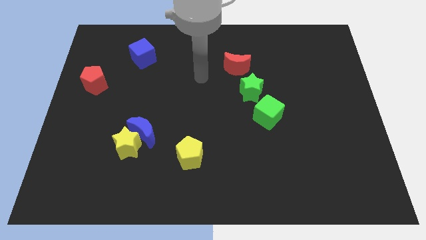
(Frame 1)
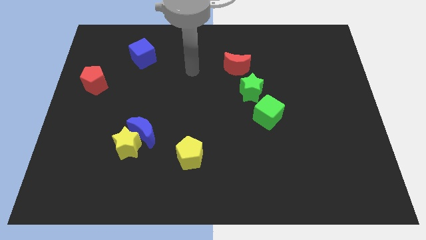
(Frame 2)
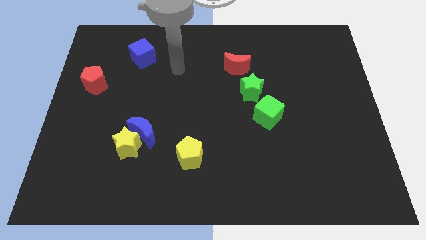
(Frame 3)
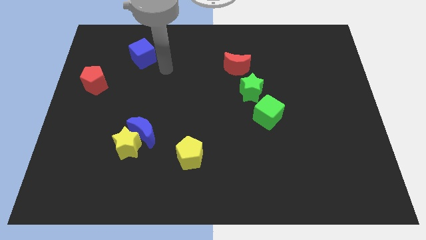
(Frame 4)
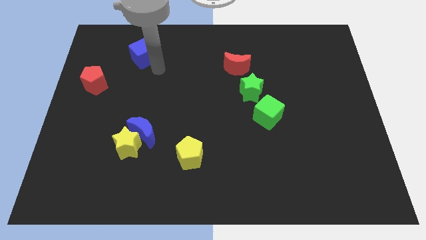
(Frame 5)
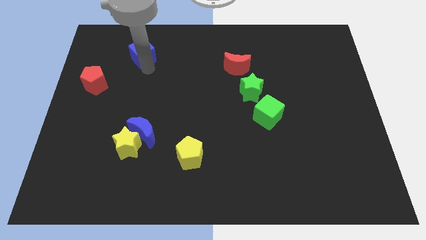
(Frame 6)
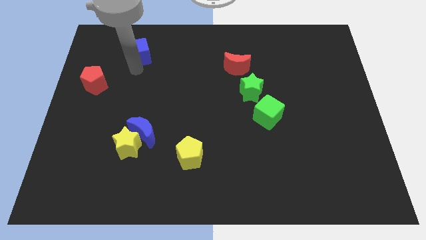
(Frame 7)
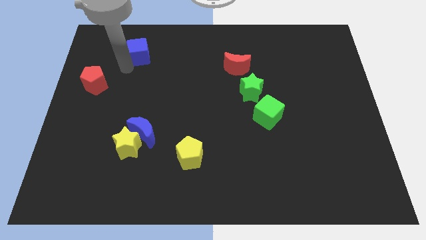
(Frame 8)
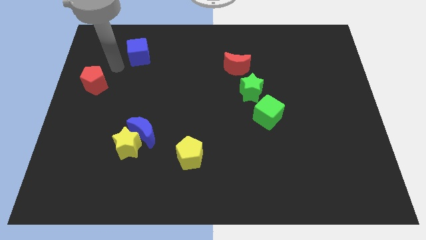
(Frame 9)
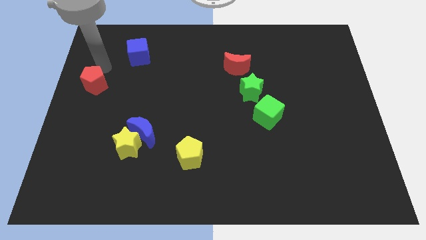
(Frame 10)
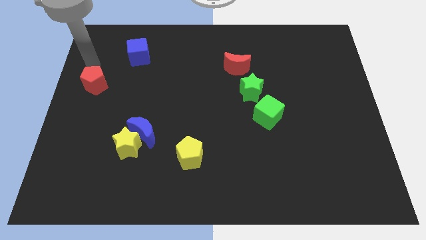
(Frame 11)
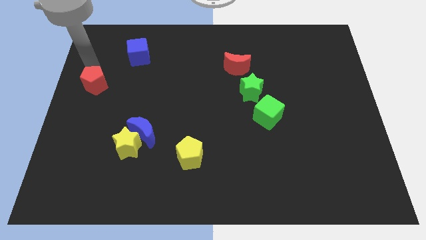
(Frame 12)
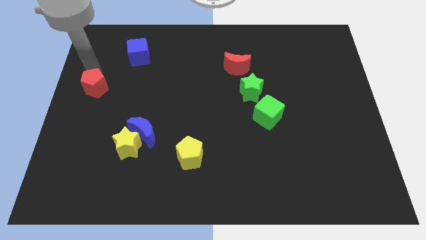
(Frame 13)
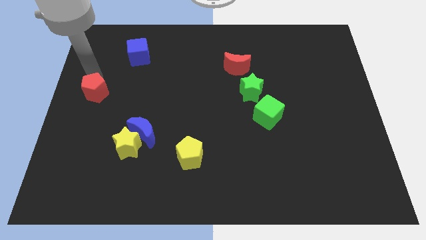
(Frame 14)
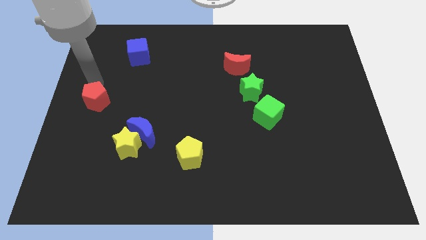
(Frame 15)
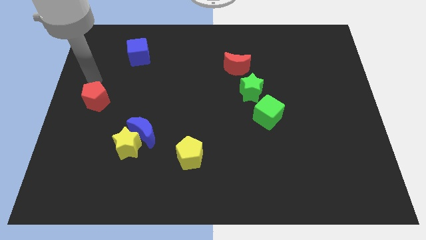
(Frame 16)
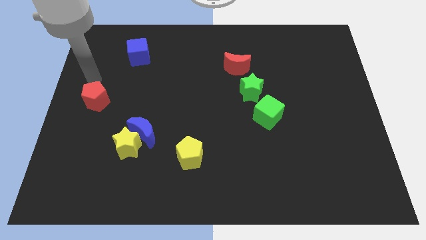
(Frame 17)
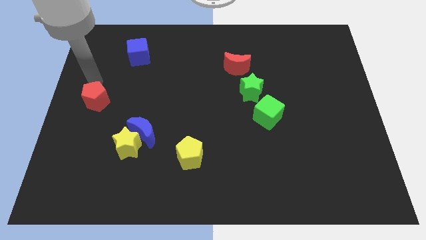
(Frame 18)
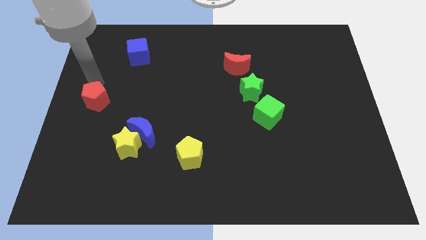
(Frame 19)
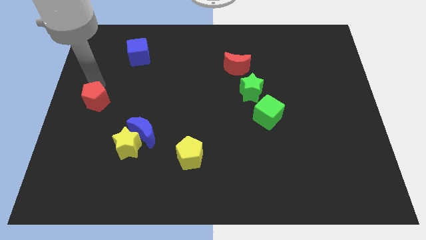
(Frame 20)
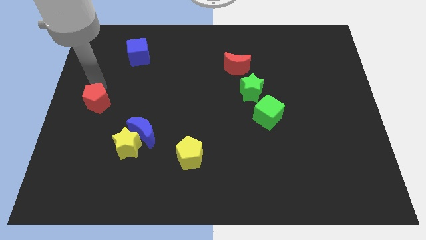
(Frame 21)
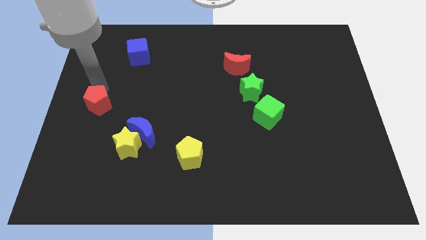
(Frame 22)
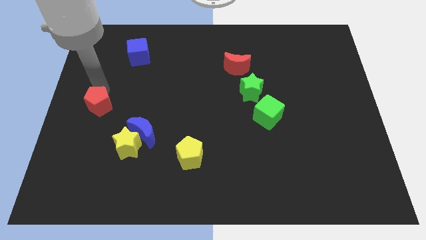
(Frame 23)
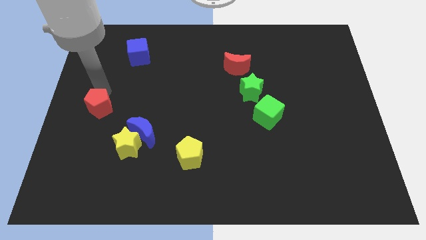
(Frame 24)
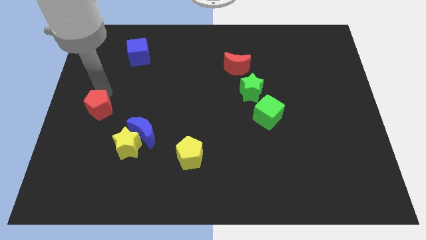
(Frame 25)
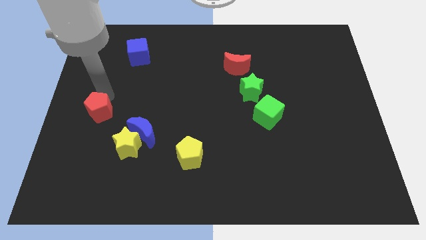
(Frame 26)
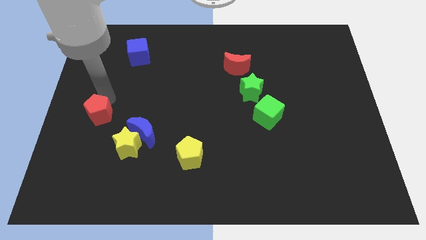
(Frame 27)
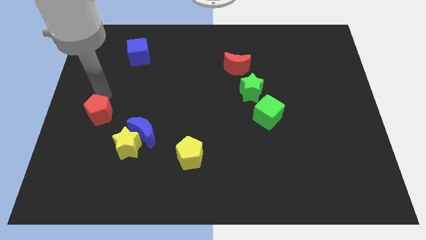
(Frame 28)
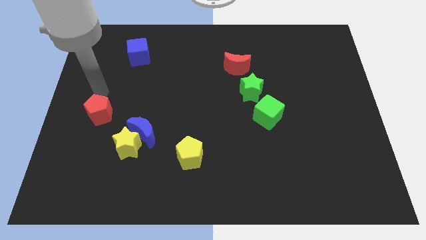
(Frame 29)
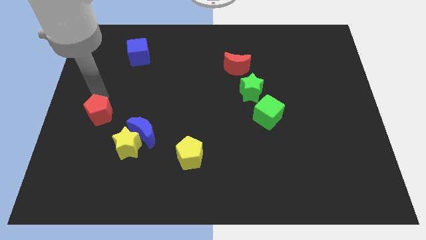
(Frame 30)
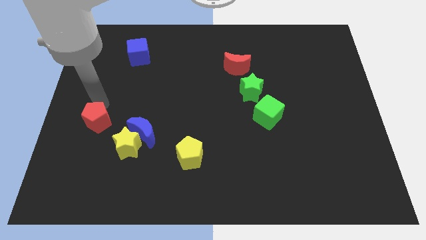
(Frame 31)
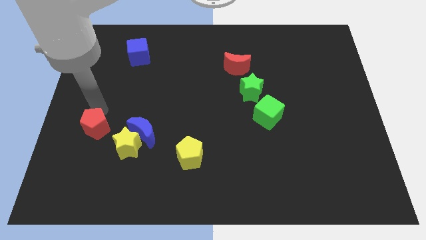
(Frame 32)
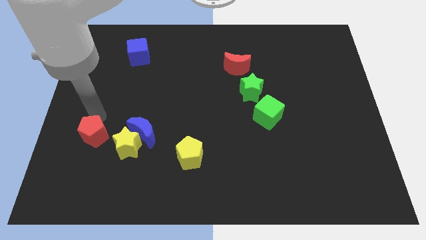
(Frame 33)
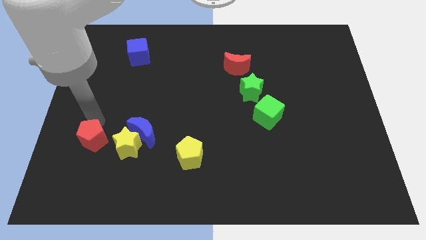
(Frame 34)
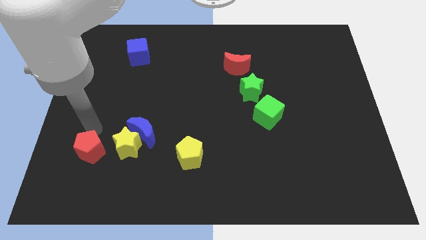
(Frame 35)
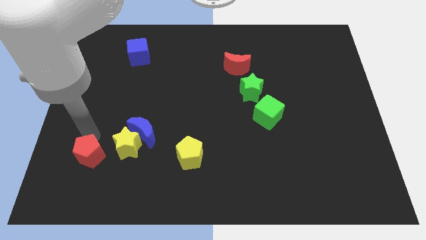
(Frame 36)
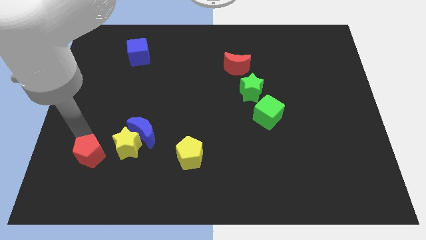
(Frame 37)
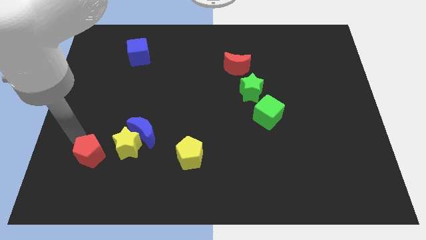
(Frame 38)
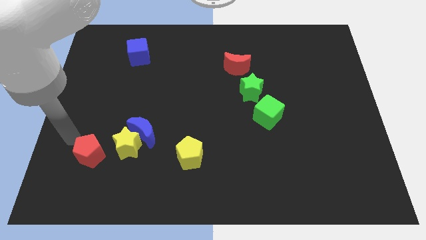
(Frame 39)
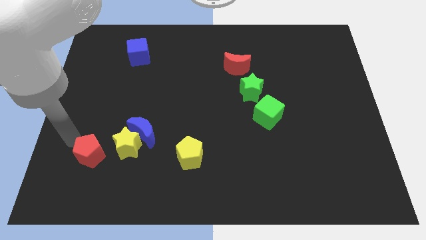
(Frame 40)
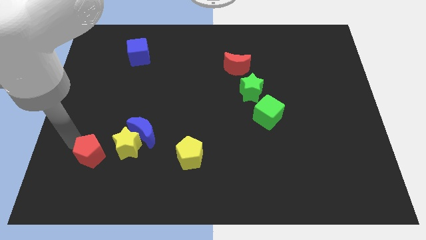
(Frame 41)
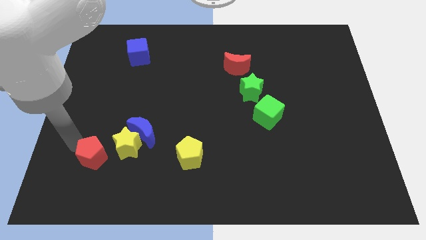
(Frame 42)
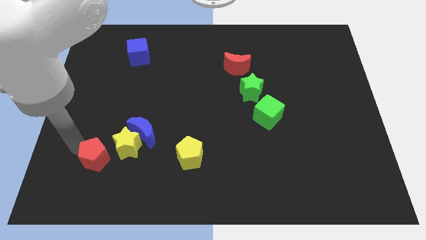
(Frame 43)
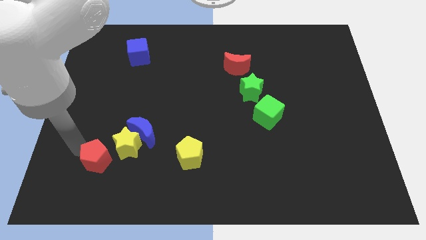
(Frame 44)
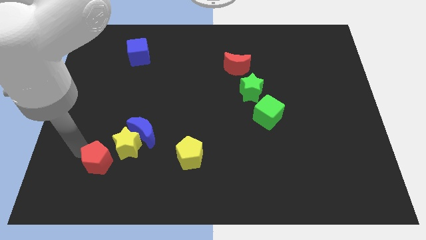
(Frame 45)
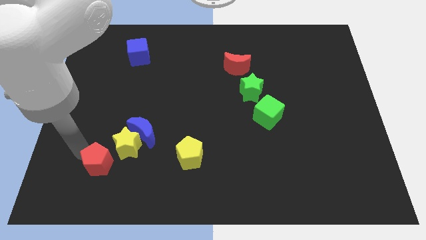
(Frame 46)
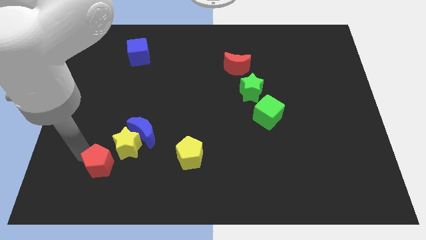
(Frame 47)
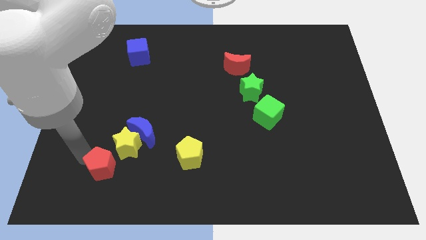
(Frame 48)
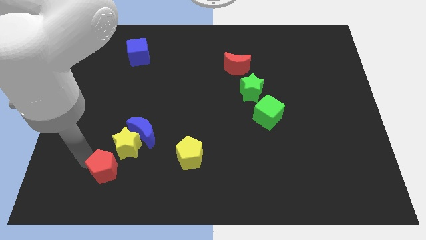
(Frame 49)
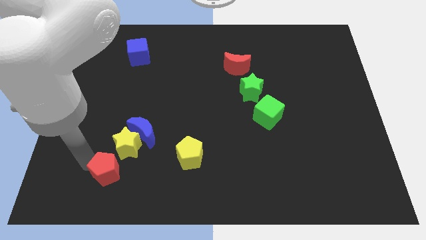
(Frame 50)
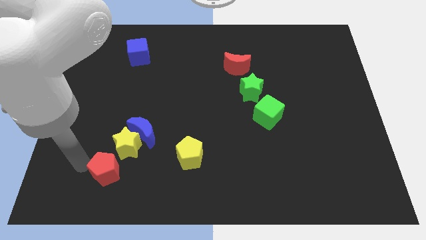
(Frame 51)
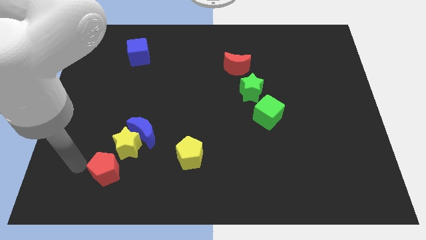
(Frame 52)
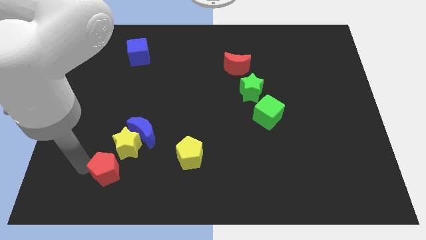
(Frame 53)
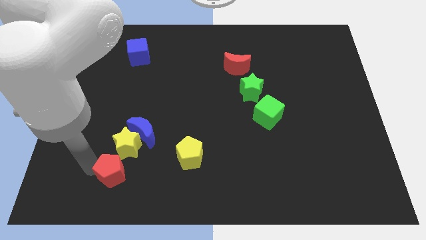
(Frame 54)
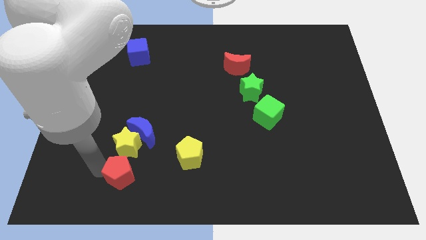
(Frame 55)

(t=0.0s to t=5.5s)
push the red pentagon below the blue moon

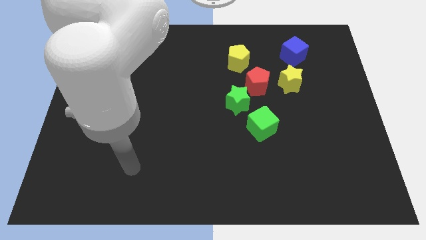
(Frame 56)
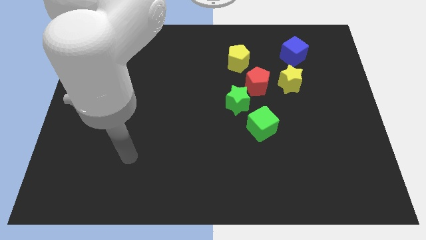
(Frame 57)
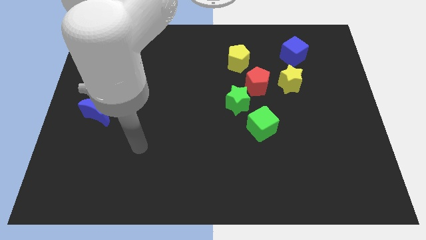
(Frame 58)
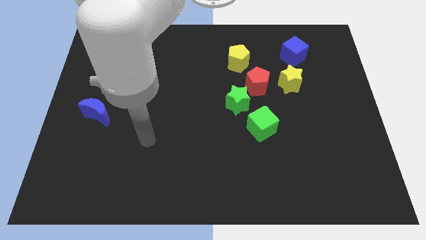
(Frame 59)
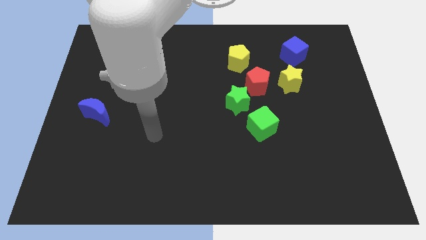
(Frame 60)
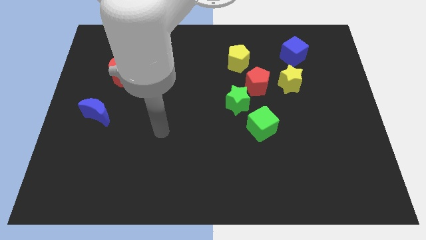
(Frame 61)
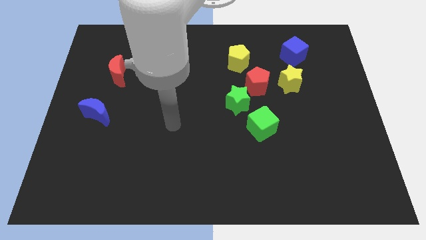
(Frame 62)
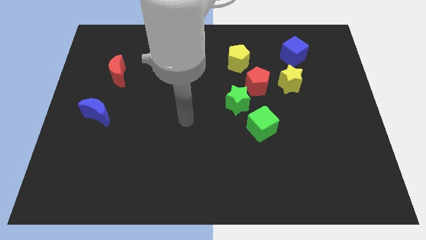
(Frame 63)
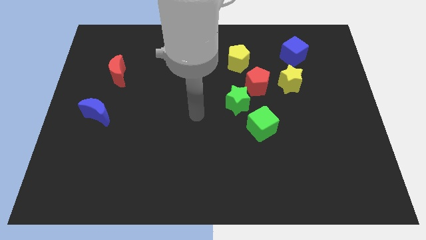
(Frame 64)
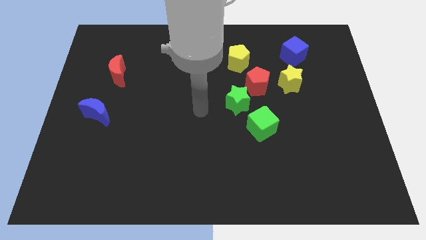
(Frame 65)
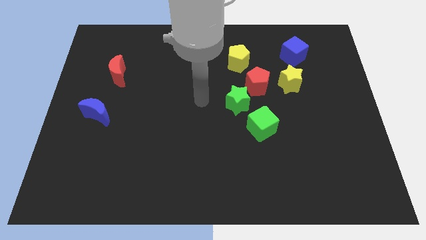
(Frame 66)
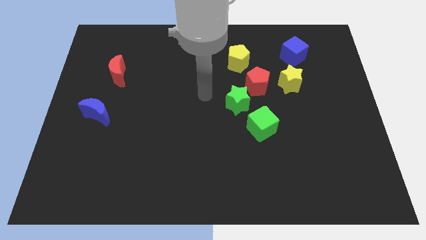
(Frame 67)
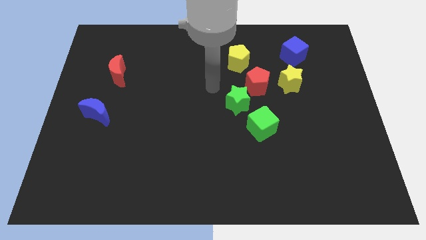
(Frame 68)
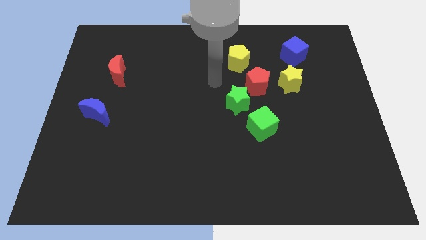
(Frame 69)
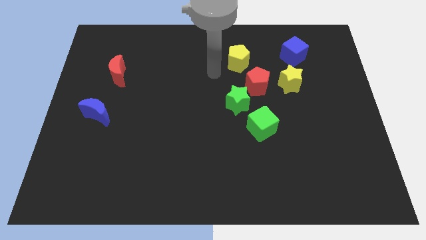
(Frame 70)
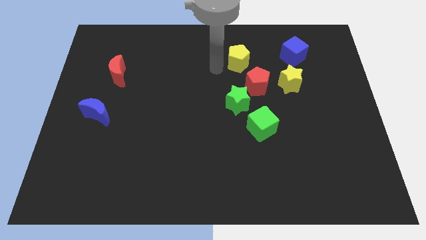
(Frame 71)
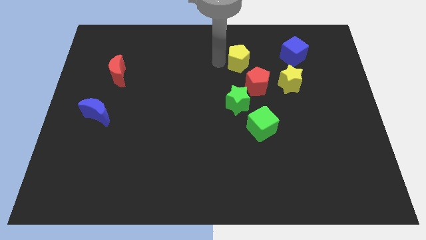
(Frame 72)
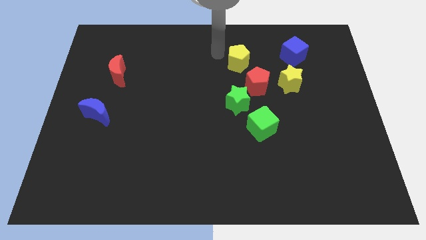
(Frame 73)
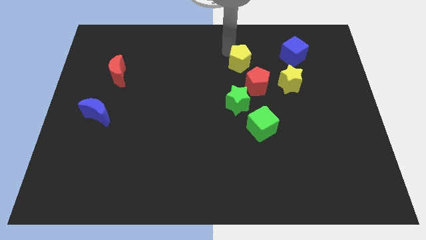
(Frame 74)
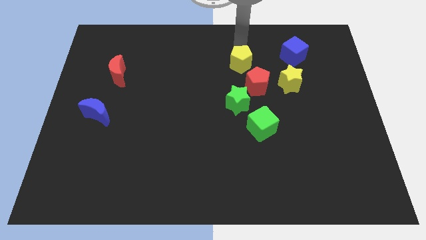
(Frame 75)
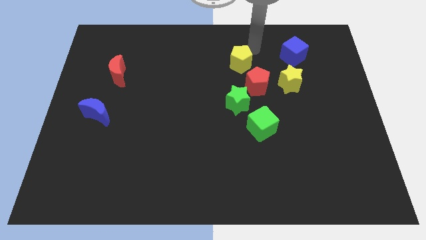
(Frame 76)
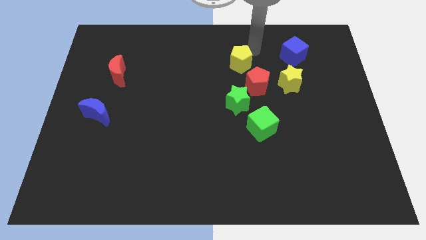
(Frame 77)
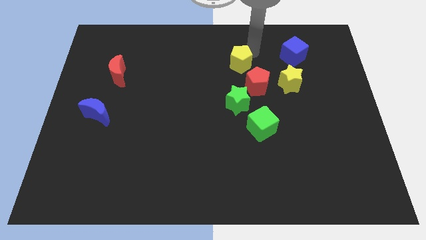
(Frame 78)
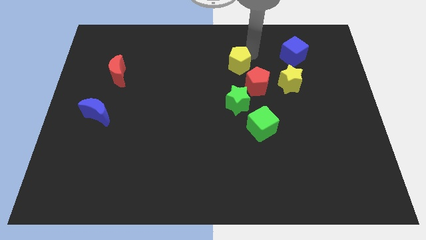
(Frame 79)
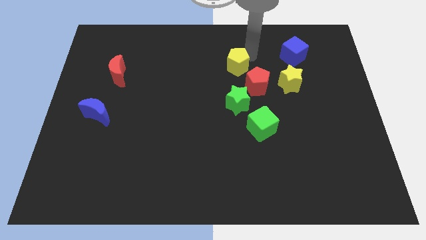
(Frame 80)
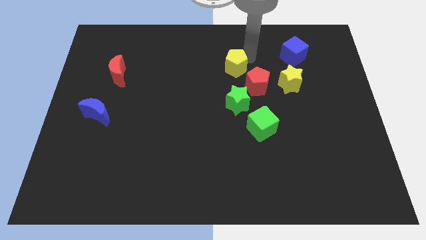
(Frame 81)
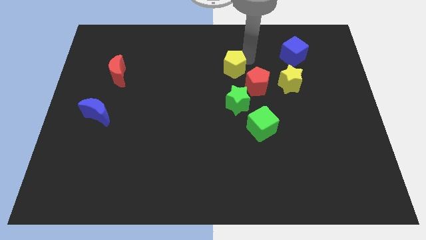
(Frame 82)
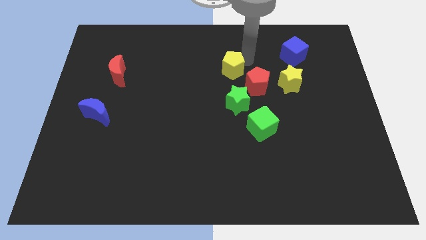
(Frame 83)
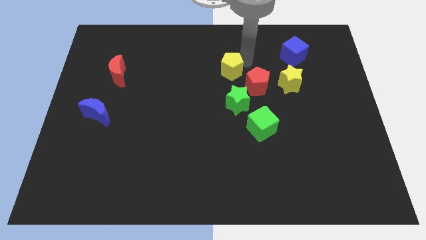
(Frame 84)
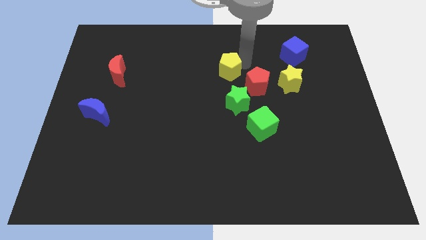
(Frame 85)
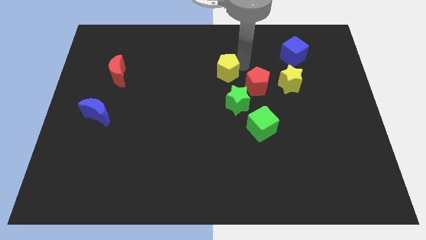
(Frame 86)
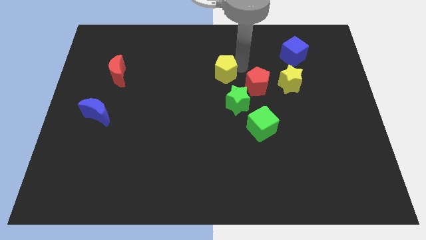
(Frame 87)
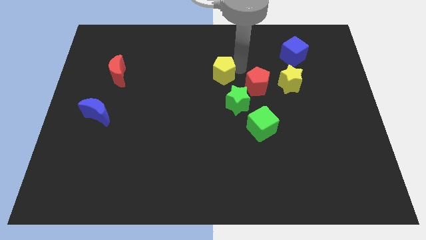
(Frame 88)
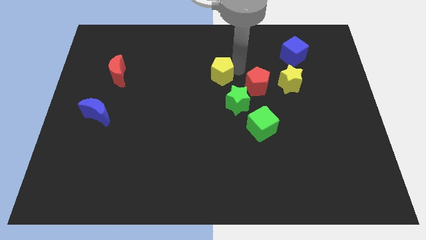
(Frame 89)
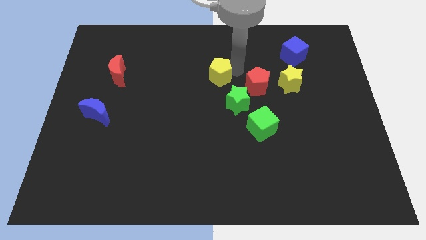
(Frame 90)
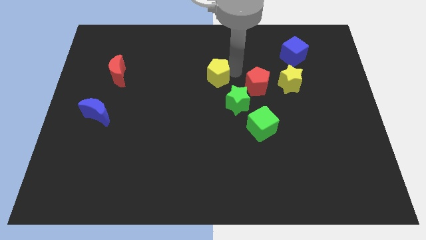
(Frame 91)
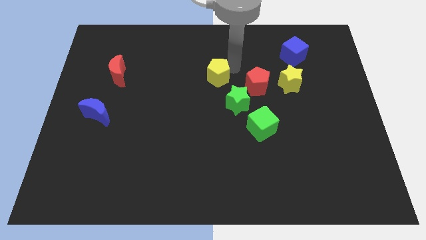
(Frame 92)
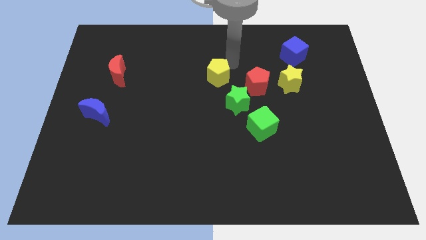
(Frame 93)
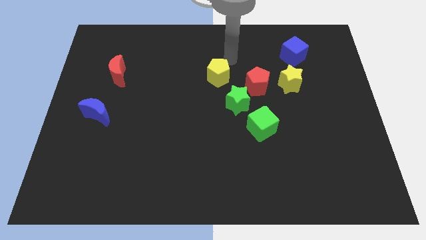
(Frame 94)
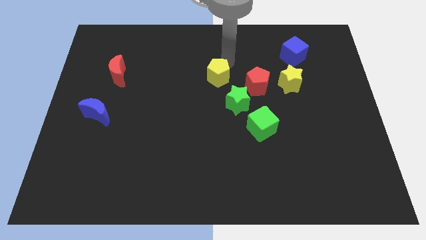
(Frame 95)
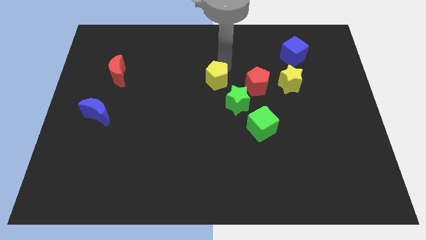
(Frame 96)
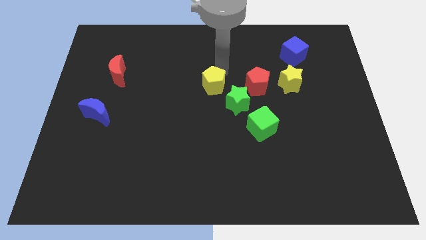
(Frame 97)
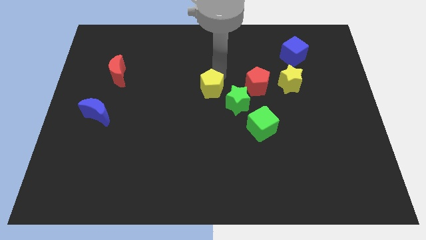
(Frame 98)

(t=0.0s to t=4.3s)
push the yellow pentagon to the left side of the green star
